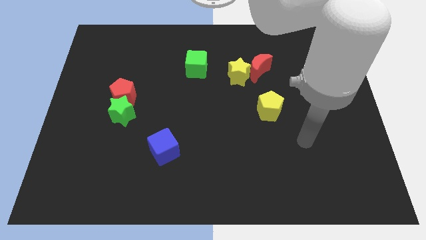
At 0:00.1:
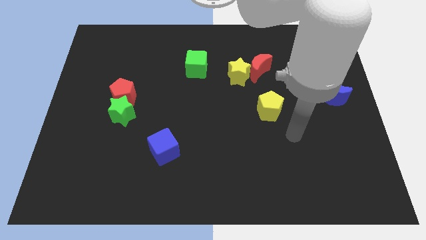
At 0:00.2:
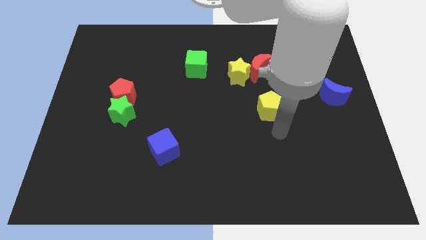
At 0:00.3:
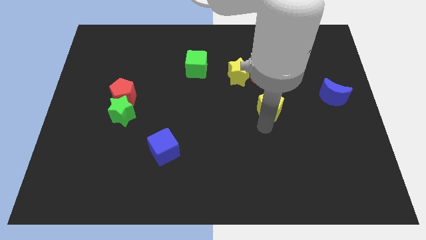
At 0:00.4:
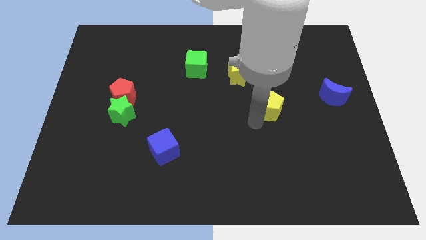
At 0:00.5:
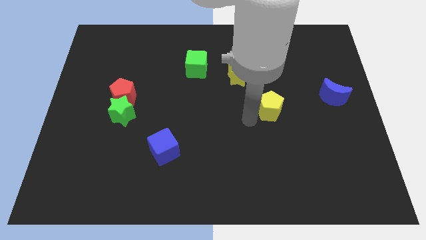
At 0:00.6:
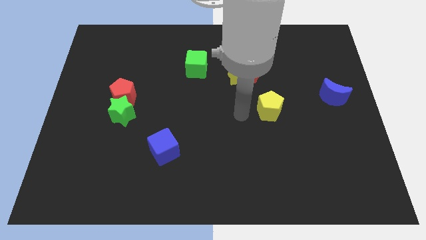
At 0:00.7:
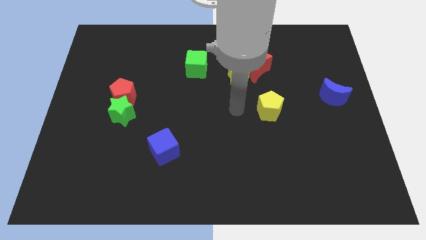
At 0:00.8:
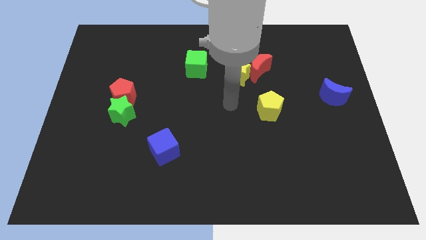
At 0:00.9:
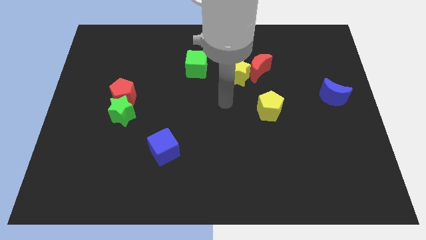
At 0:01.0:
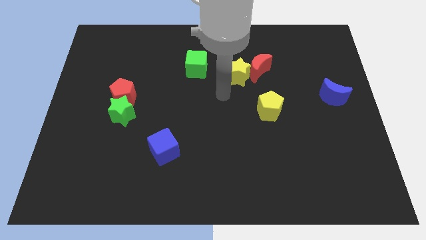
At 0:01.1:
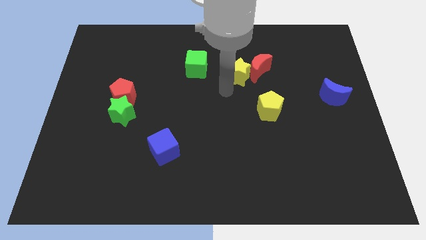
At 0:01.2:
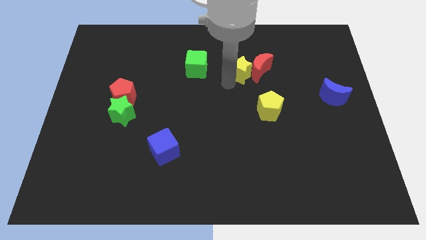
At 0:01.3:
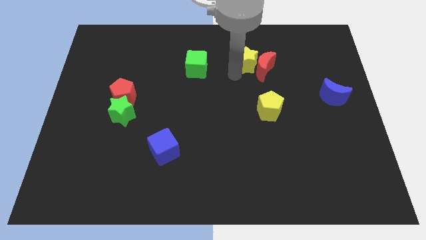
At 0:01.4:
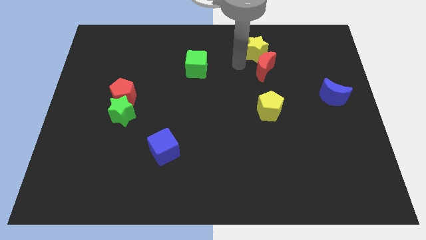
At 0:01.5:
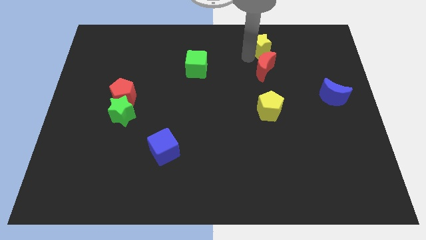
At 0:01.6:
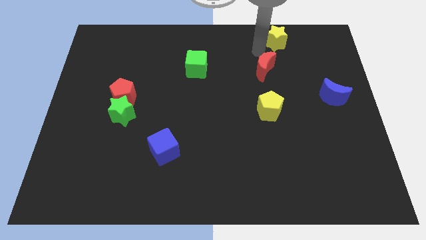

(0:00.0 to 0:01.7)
move the red moon away from the yellow star

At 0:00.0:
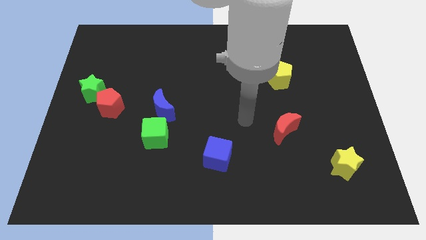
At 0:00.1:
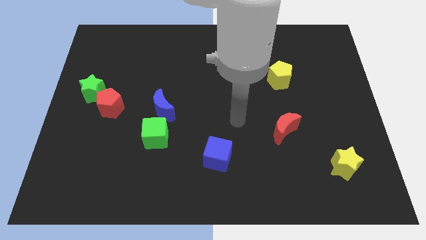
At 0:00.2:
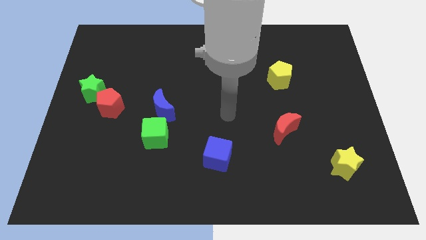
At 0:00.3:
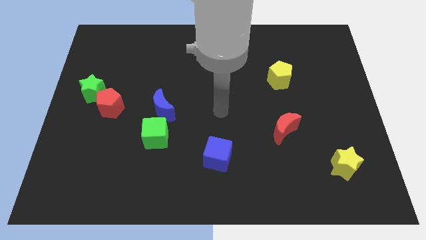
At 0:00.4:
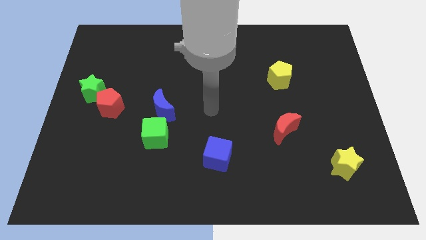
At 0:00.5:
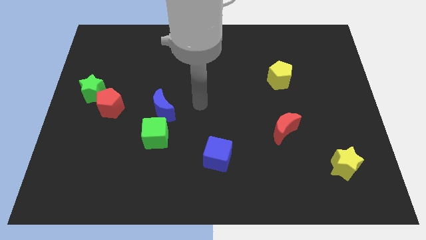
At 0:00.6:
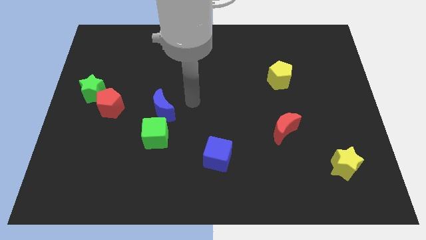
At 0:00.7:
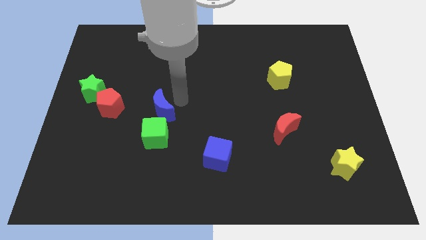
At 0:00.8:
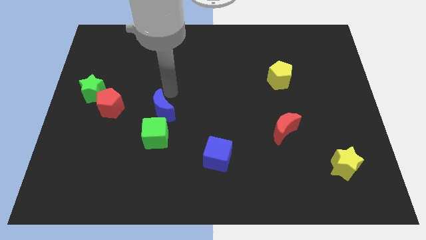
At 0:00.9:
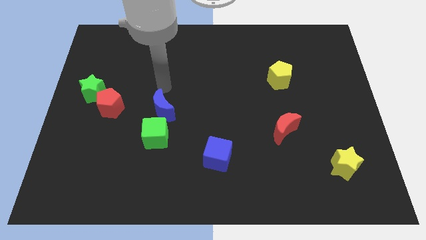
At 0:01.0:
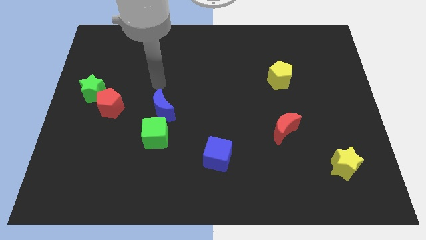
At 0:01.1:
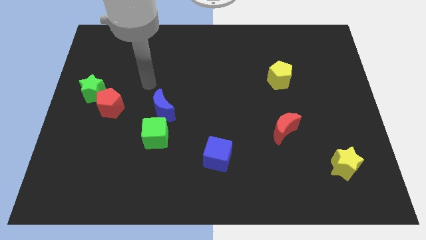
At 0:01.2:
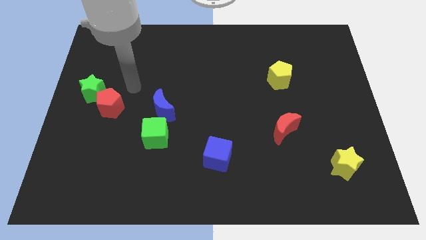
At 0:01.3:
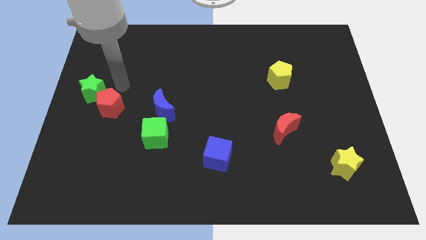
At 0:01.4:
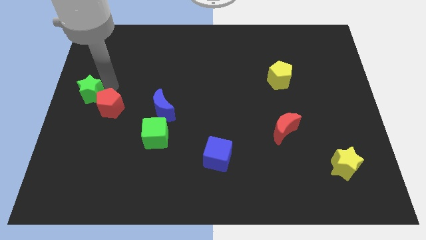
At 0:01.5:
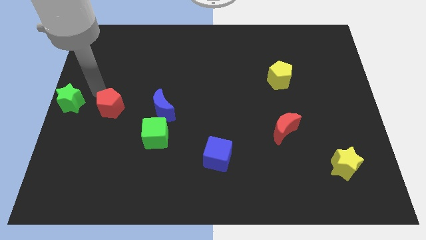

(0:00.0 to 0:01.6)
separate the red pentagon from the green star

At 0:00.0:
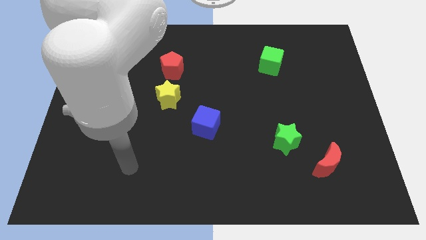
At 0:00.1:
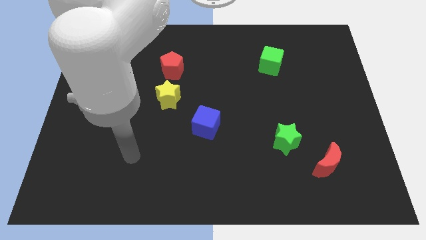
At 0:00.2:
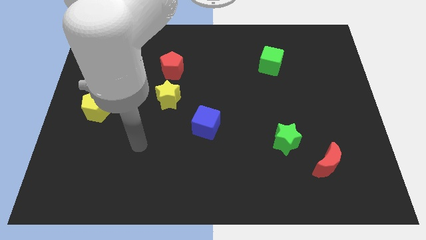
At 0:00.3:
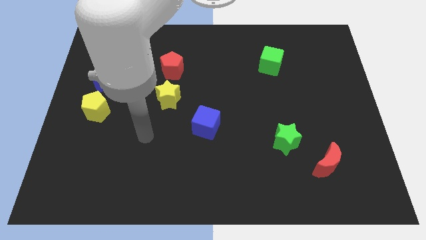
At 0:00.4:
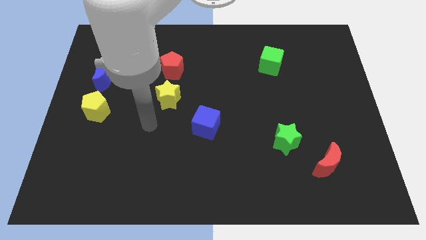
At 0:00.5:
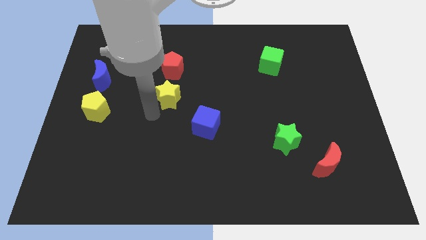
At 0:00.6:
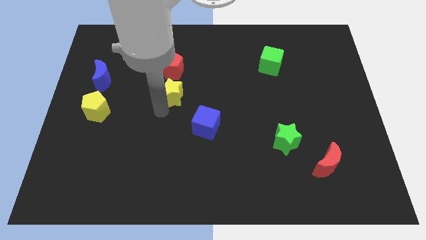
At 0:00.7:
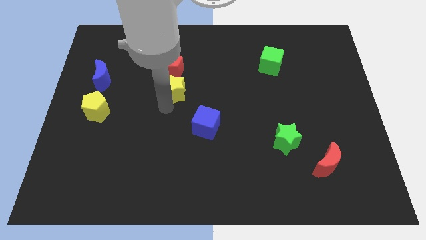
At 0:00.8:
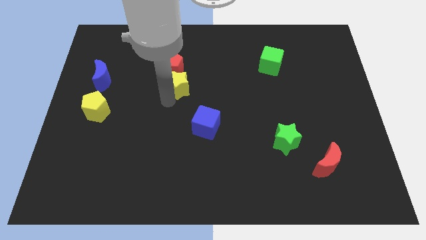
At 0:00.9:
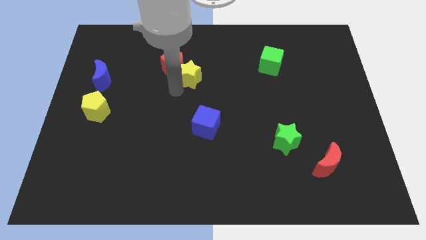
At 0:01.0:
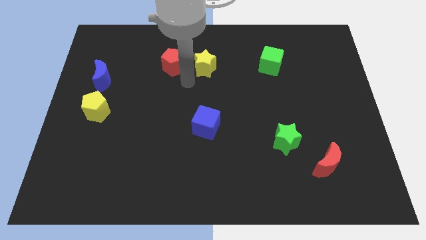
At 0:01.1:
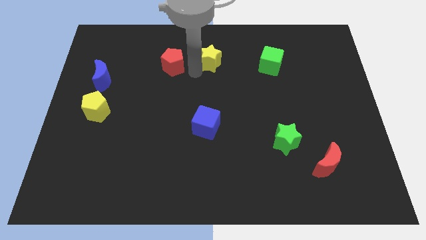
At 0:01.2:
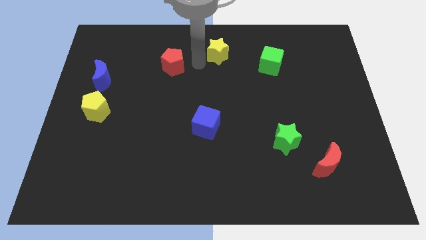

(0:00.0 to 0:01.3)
pull the red pentagon apart from the yellow star

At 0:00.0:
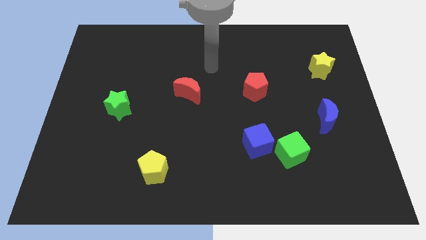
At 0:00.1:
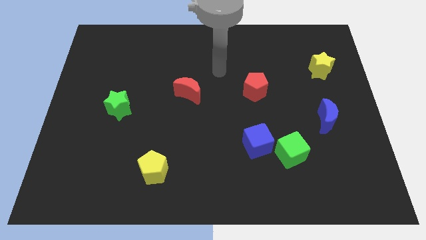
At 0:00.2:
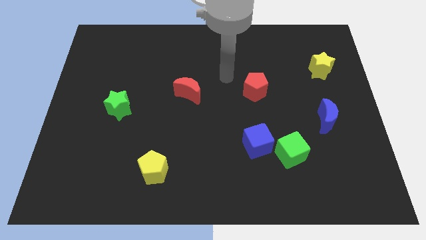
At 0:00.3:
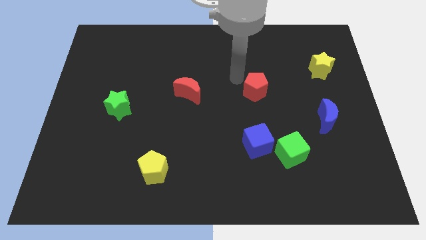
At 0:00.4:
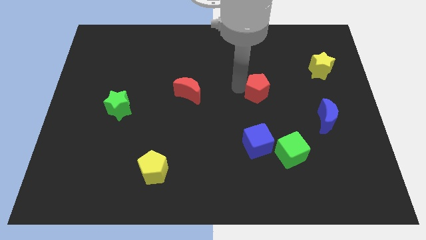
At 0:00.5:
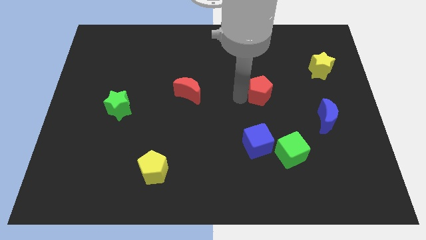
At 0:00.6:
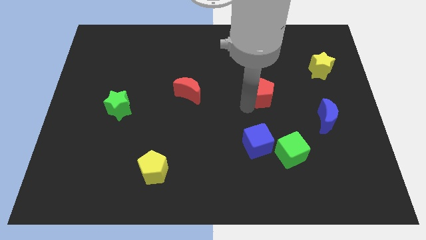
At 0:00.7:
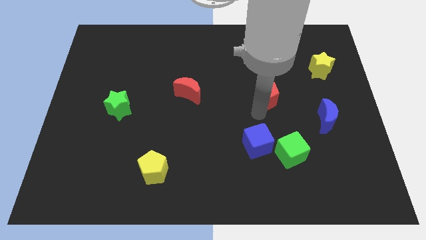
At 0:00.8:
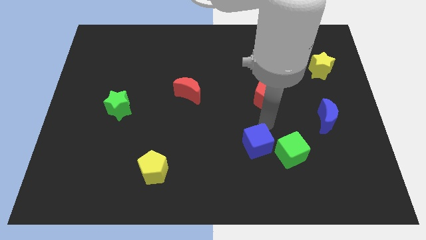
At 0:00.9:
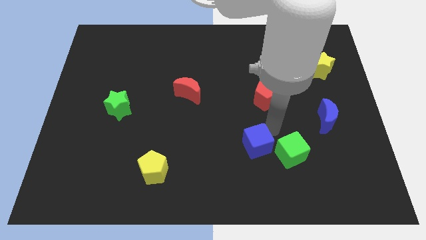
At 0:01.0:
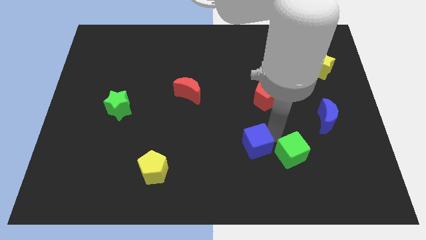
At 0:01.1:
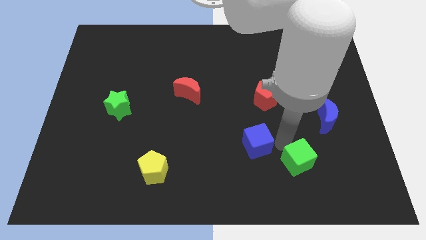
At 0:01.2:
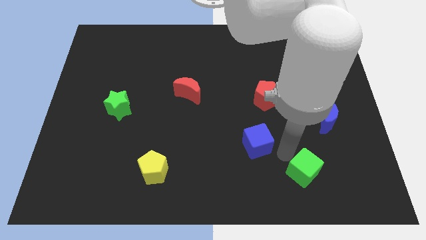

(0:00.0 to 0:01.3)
move the blue cube away from the green cube

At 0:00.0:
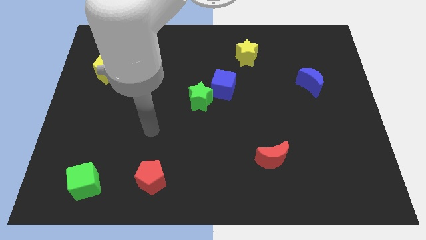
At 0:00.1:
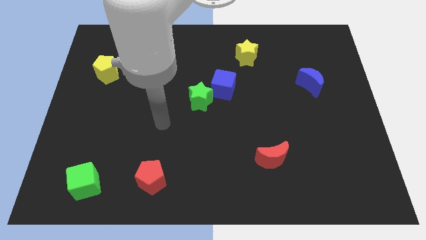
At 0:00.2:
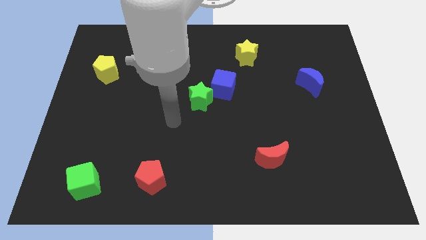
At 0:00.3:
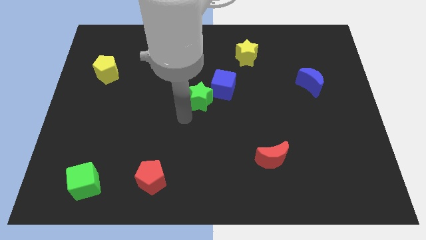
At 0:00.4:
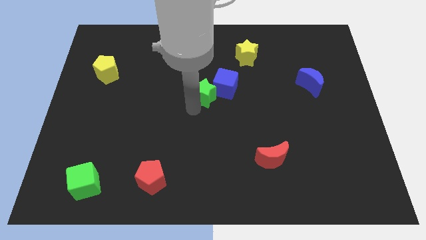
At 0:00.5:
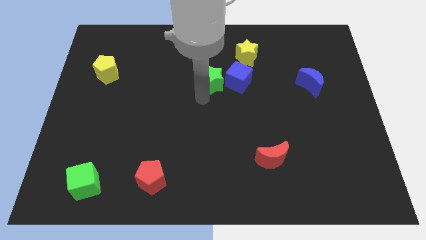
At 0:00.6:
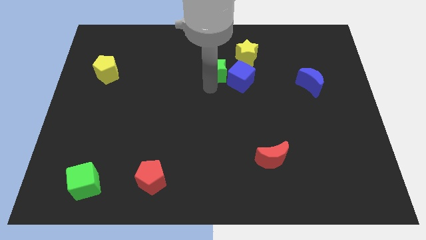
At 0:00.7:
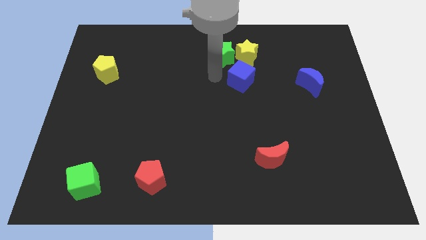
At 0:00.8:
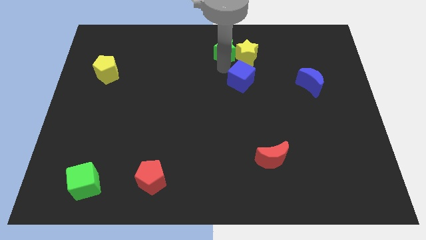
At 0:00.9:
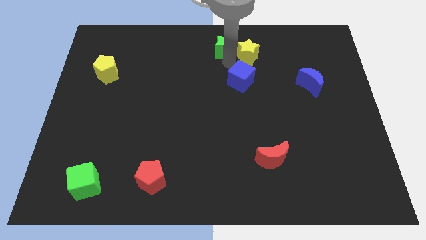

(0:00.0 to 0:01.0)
separate the blue cube from the green star

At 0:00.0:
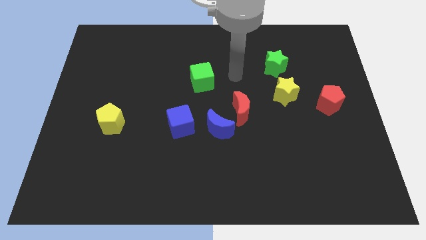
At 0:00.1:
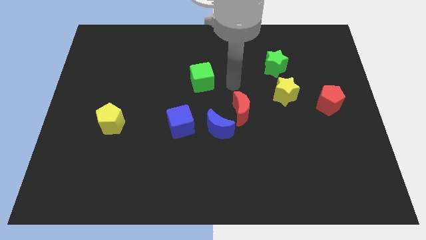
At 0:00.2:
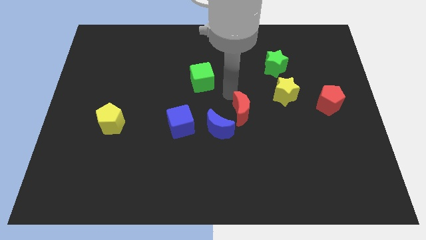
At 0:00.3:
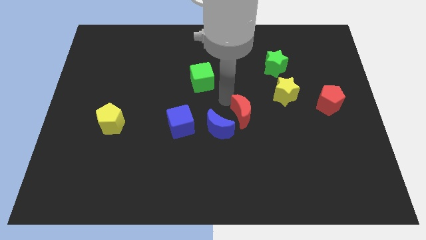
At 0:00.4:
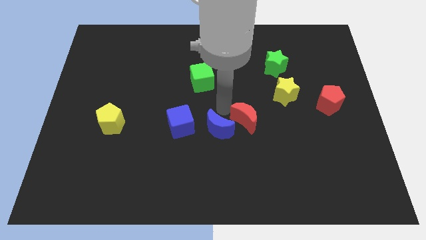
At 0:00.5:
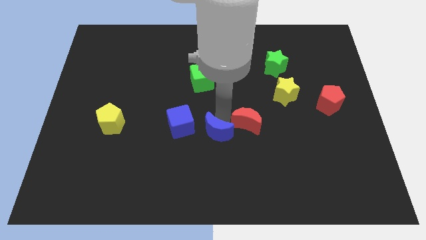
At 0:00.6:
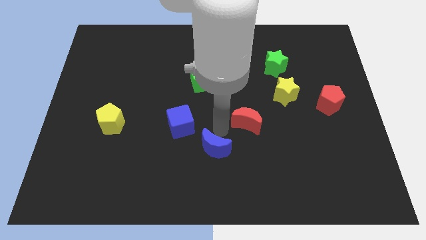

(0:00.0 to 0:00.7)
move the red moon away from the blue moon

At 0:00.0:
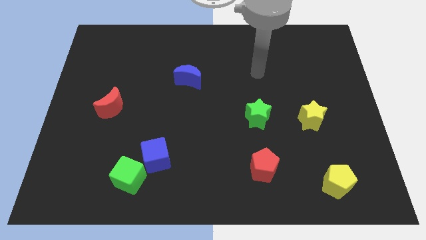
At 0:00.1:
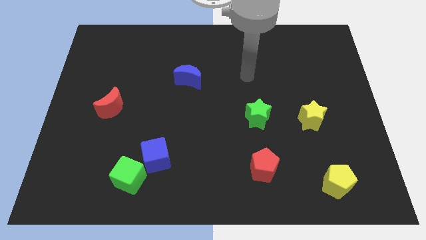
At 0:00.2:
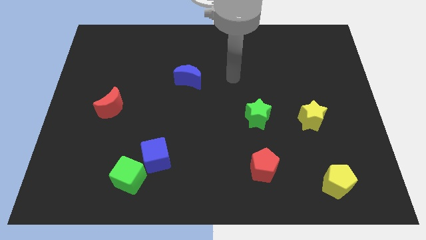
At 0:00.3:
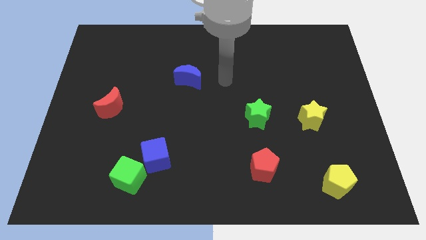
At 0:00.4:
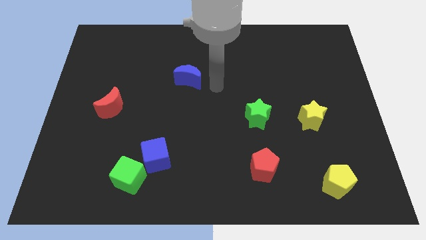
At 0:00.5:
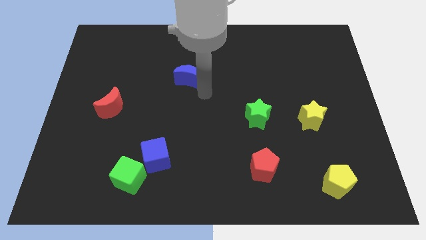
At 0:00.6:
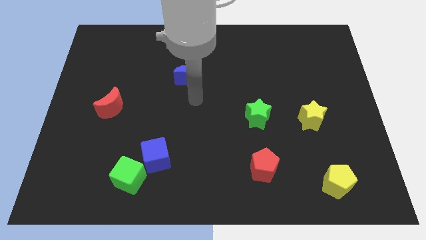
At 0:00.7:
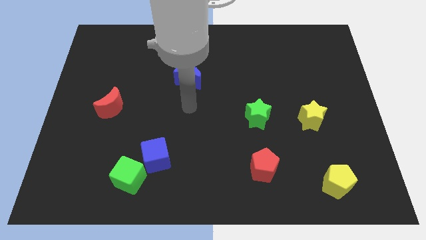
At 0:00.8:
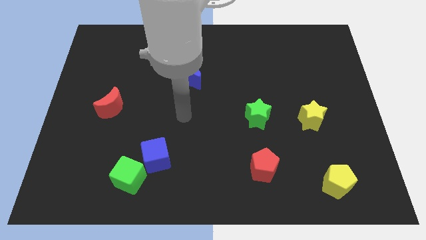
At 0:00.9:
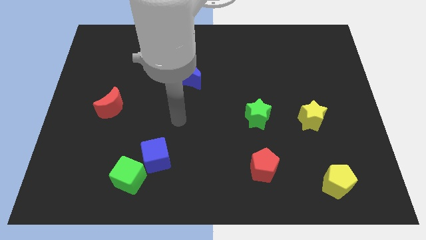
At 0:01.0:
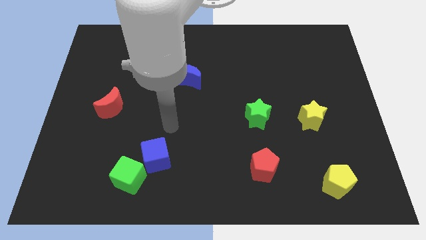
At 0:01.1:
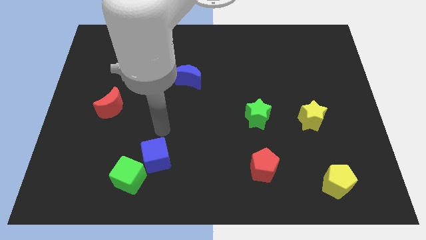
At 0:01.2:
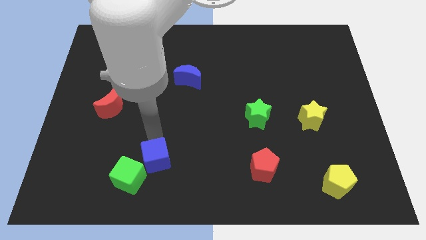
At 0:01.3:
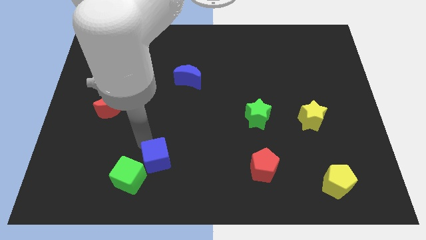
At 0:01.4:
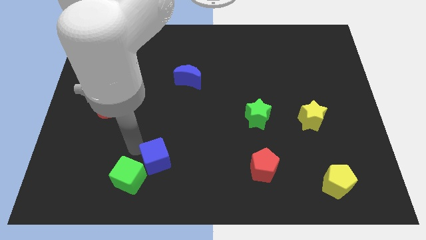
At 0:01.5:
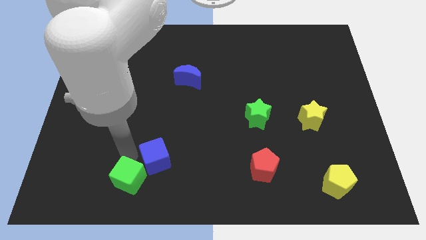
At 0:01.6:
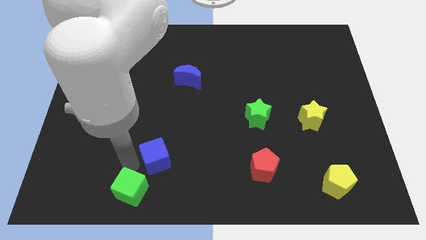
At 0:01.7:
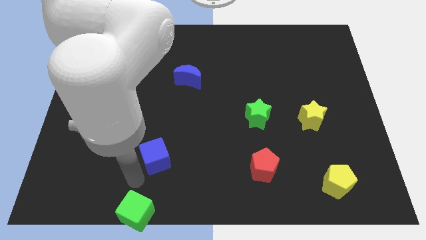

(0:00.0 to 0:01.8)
pull the blue cube apart from the green cube
